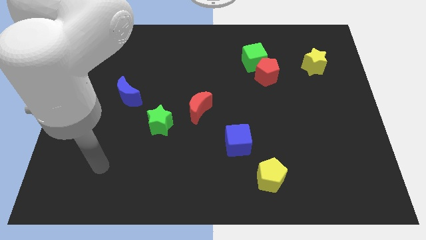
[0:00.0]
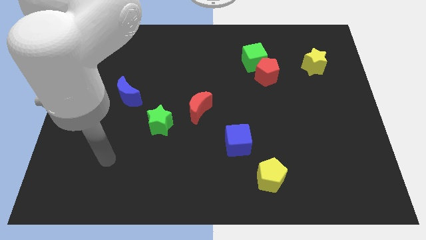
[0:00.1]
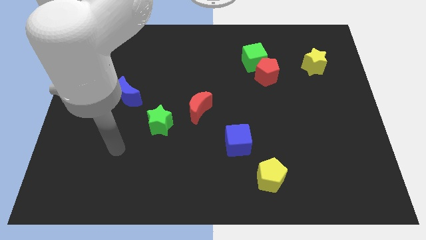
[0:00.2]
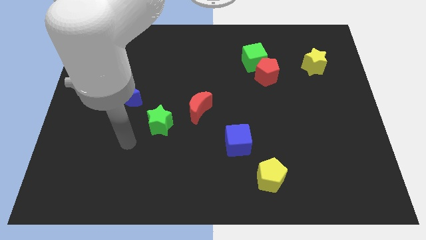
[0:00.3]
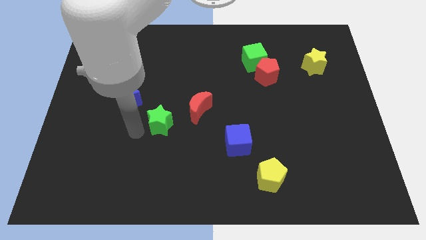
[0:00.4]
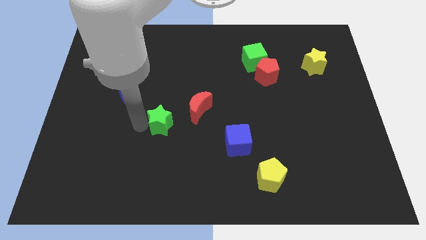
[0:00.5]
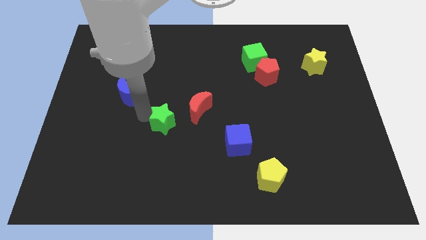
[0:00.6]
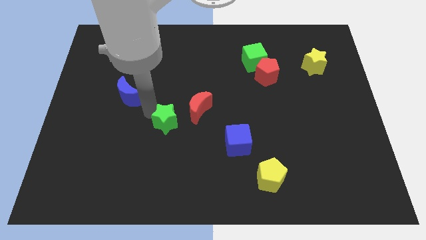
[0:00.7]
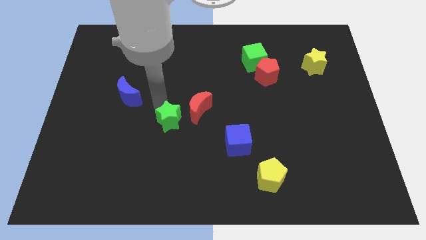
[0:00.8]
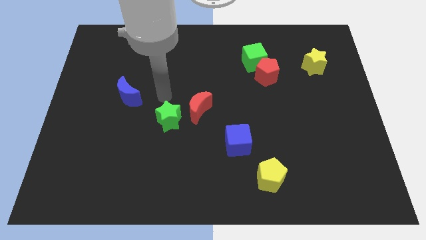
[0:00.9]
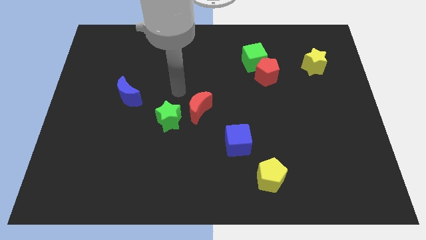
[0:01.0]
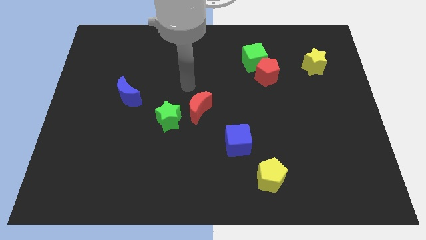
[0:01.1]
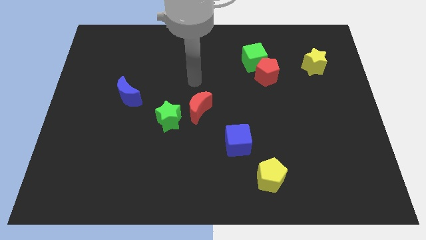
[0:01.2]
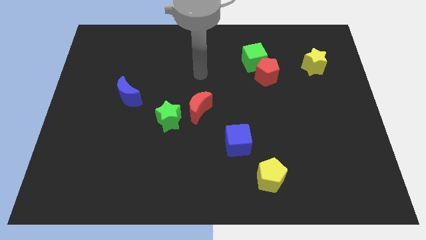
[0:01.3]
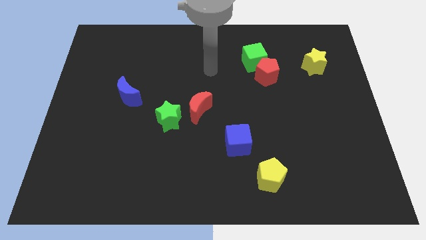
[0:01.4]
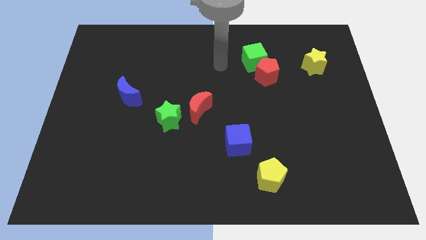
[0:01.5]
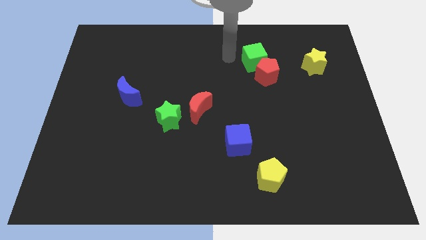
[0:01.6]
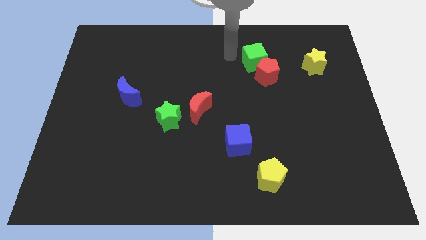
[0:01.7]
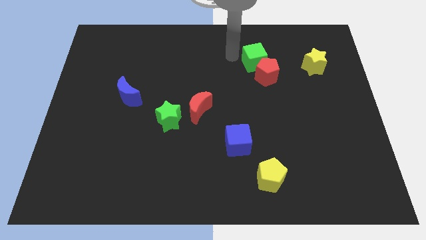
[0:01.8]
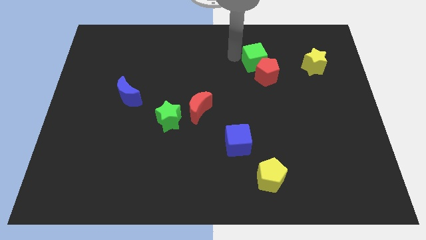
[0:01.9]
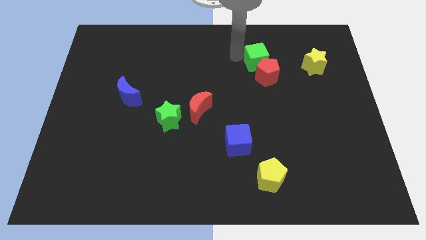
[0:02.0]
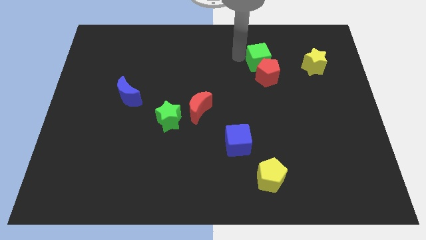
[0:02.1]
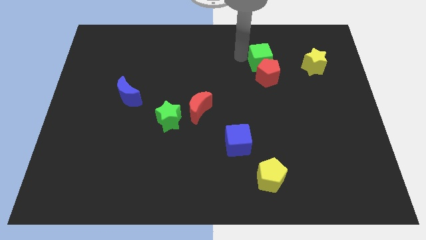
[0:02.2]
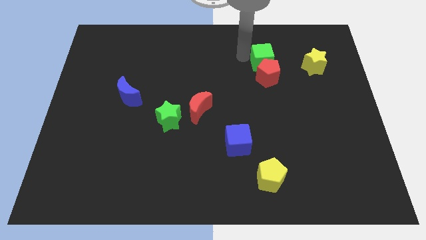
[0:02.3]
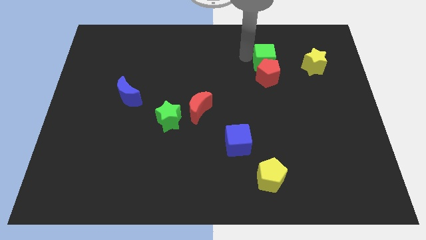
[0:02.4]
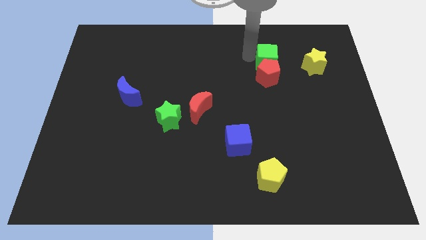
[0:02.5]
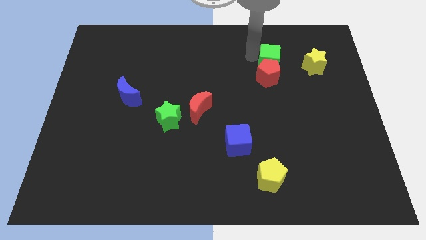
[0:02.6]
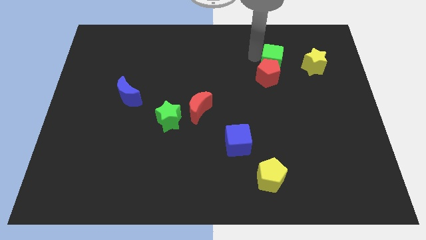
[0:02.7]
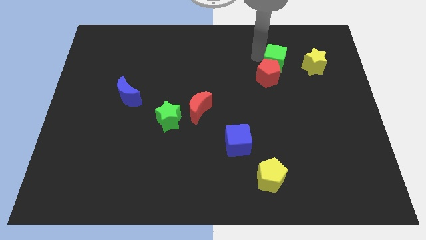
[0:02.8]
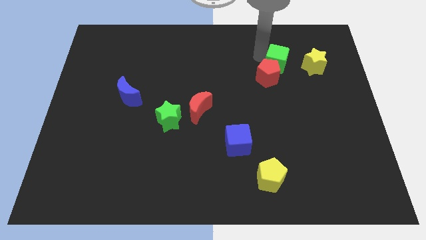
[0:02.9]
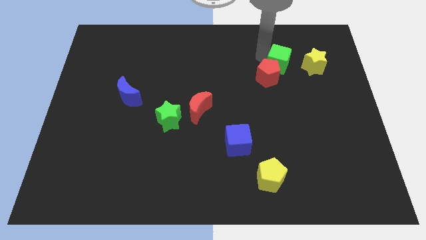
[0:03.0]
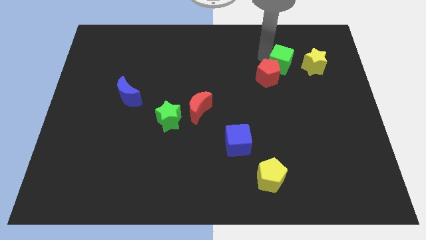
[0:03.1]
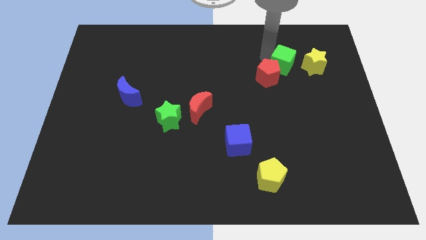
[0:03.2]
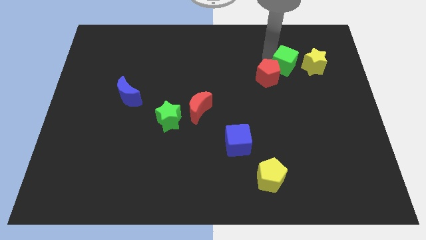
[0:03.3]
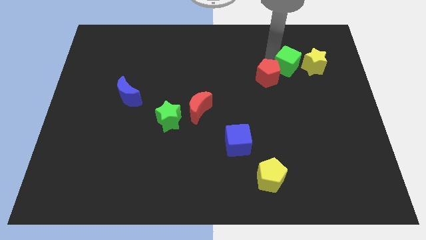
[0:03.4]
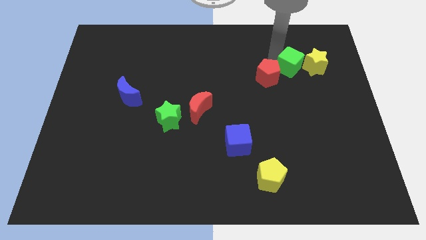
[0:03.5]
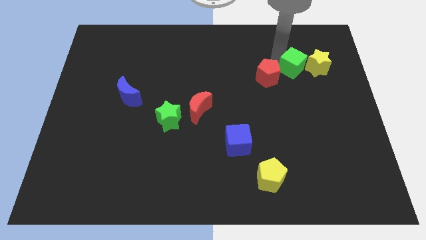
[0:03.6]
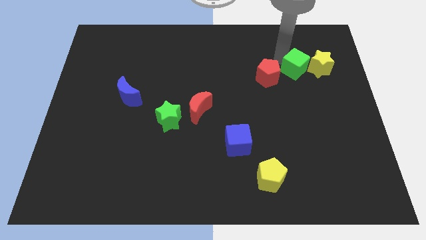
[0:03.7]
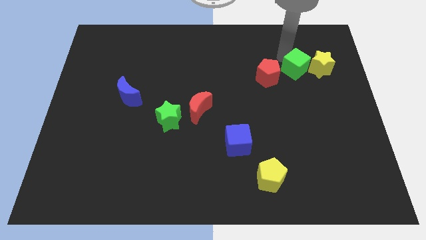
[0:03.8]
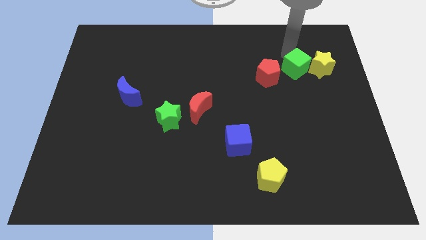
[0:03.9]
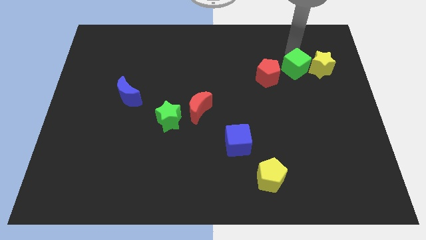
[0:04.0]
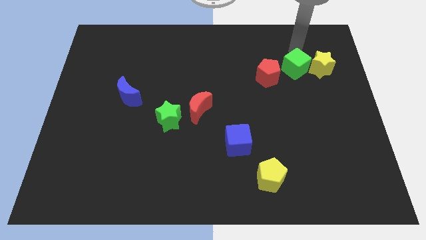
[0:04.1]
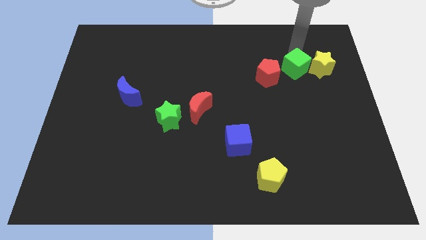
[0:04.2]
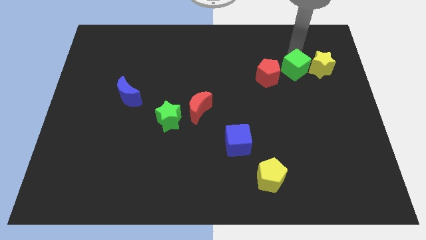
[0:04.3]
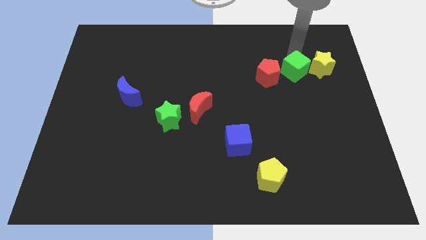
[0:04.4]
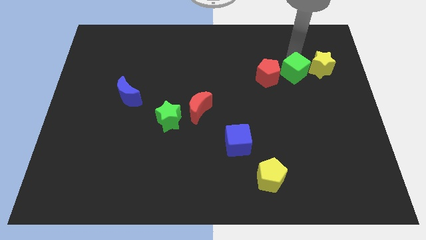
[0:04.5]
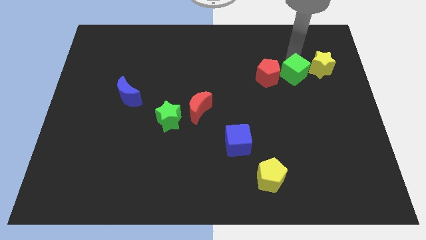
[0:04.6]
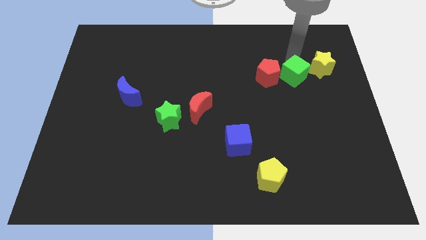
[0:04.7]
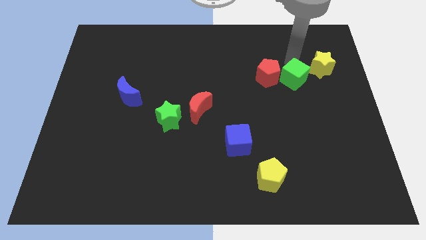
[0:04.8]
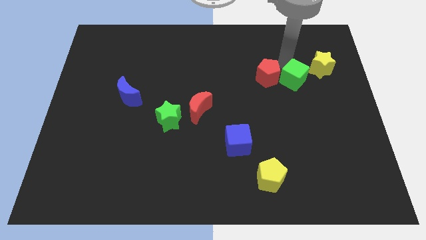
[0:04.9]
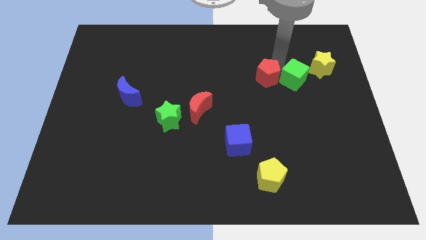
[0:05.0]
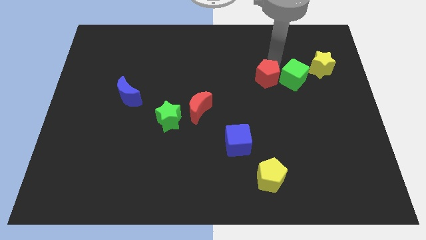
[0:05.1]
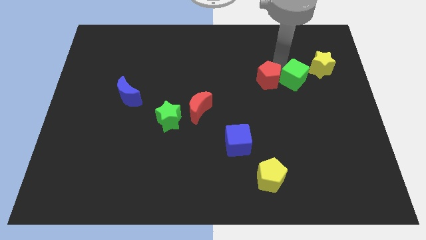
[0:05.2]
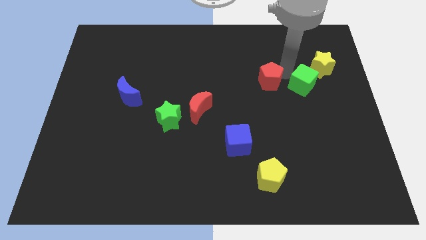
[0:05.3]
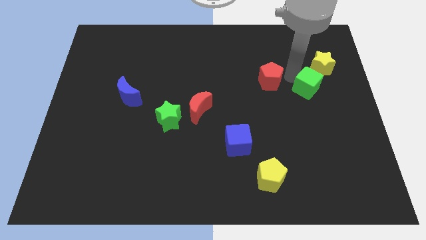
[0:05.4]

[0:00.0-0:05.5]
put the green cube to the bottom of the yellow star

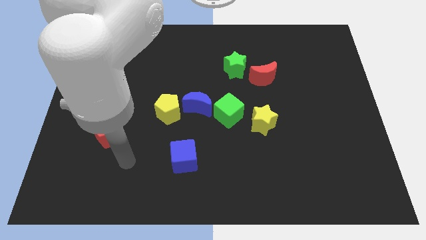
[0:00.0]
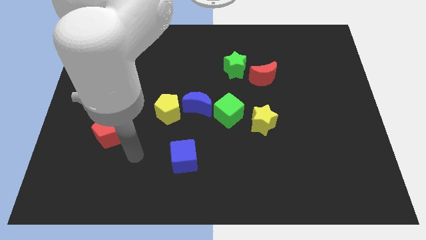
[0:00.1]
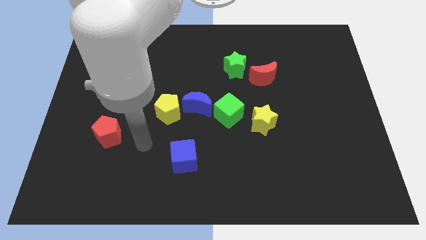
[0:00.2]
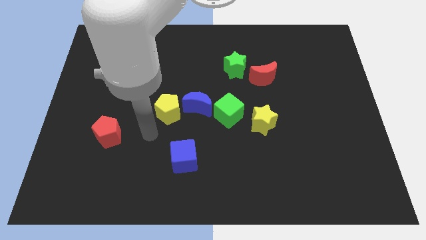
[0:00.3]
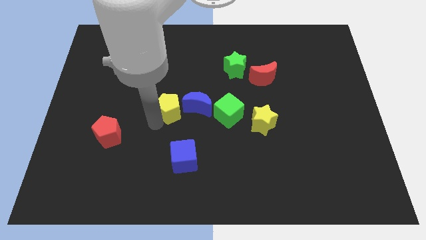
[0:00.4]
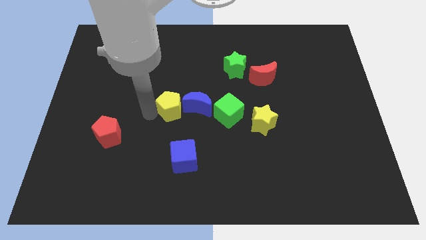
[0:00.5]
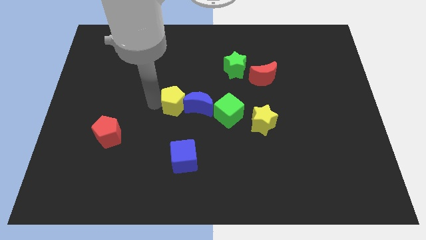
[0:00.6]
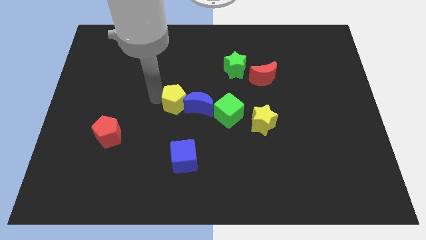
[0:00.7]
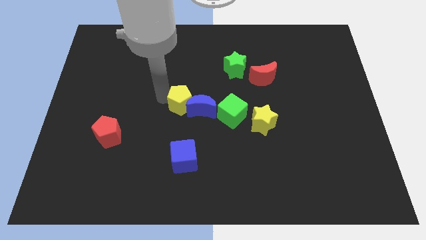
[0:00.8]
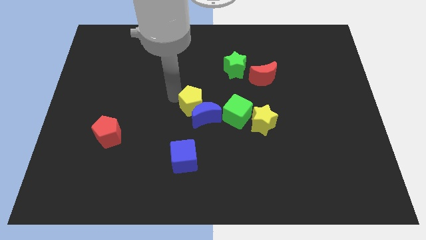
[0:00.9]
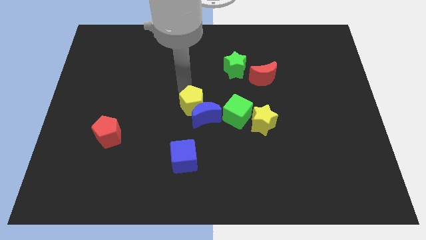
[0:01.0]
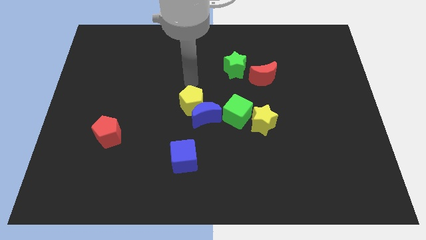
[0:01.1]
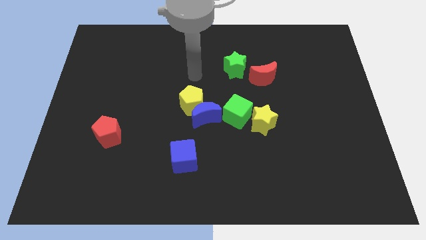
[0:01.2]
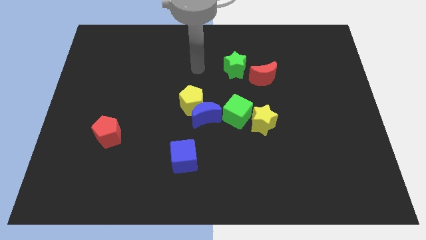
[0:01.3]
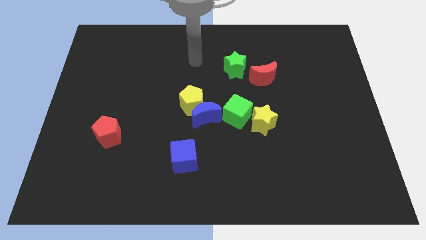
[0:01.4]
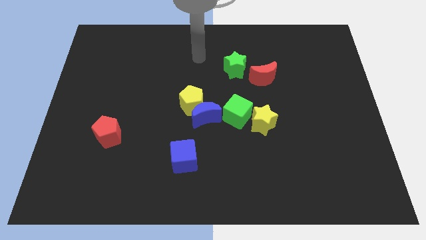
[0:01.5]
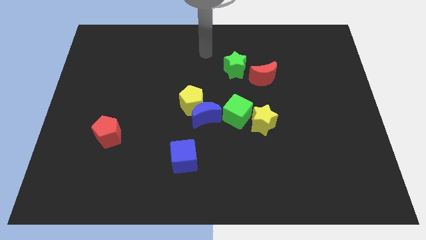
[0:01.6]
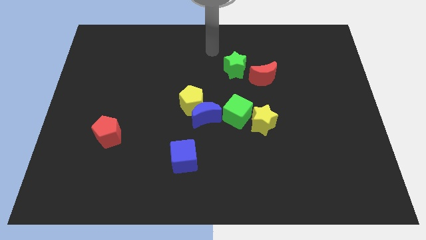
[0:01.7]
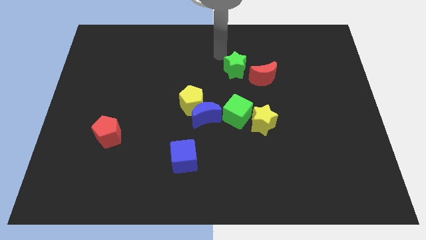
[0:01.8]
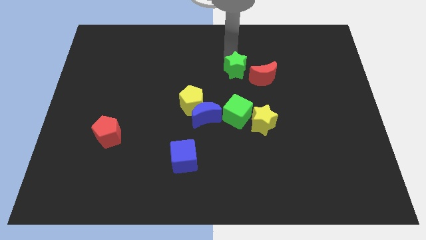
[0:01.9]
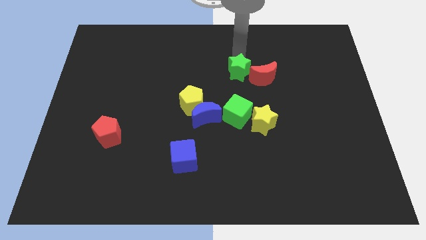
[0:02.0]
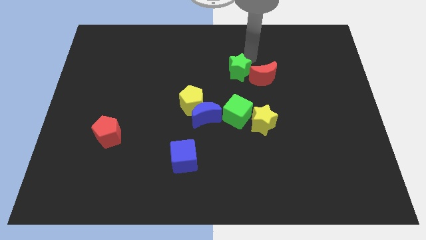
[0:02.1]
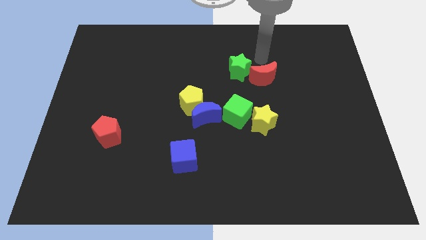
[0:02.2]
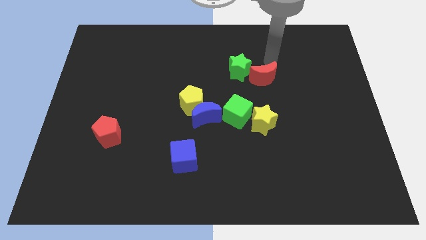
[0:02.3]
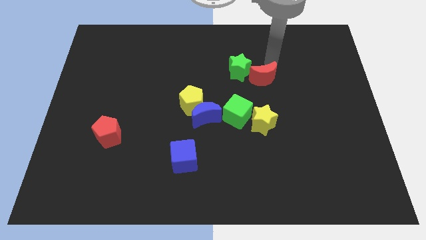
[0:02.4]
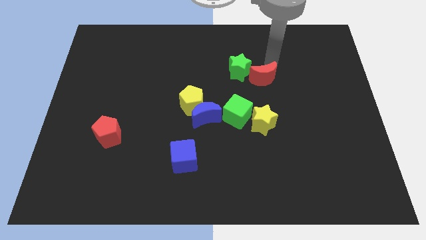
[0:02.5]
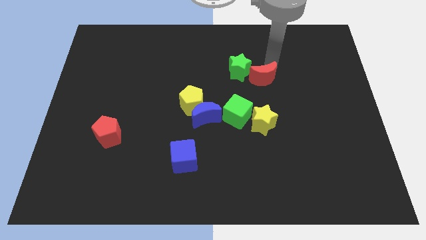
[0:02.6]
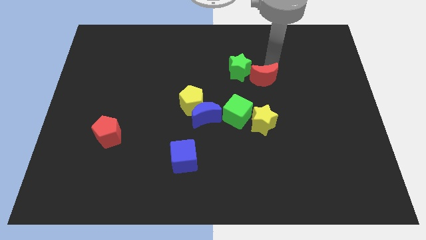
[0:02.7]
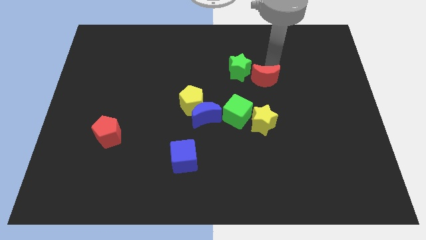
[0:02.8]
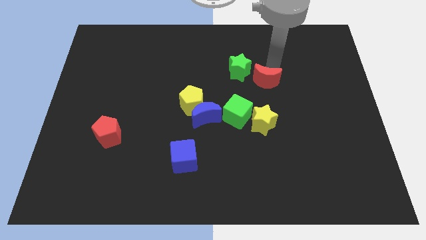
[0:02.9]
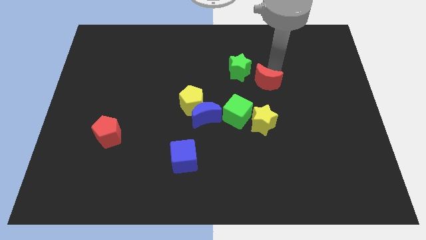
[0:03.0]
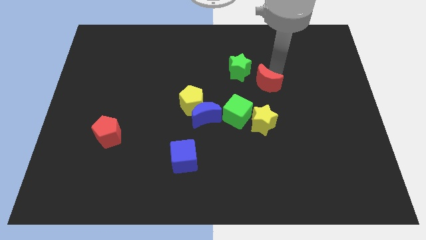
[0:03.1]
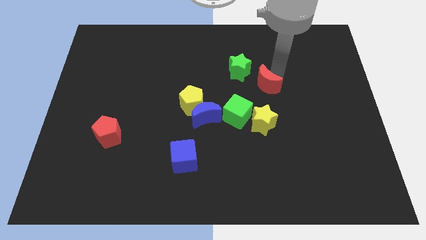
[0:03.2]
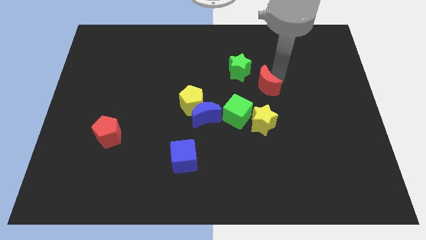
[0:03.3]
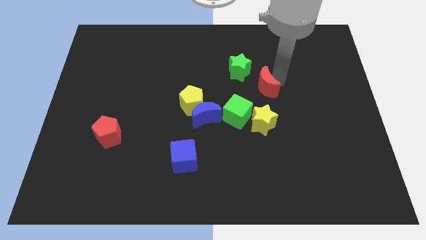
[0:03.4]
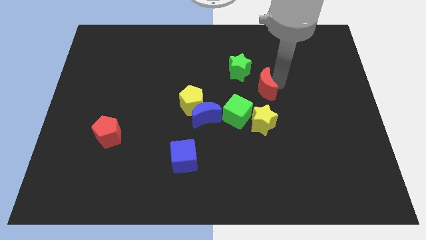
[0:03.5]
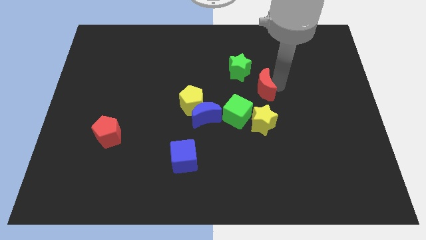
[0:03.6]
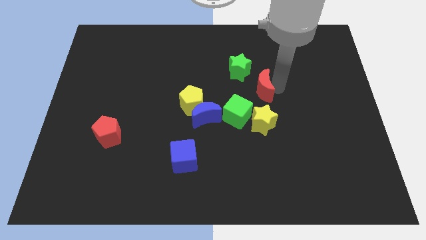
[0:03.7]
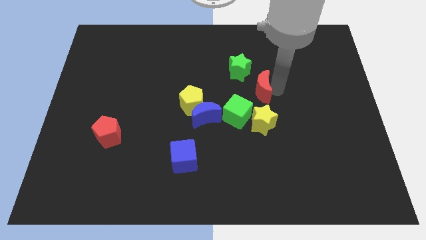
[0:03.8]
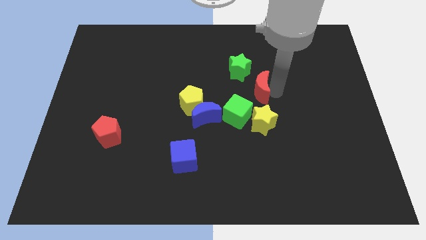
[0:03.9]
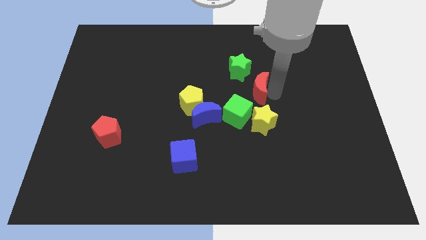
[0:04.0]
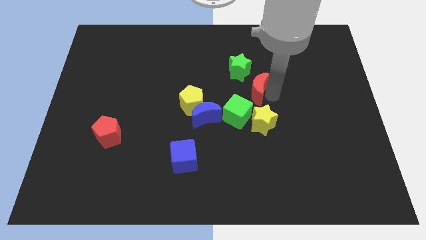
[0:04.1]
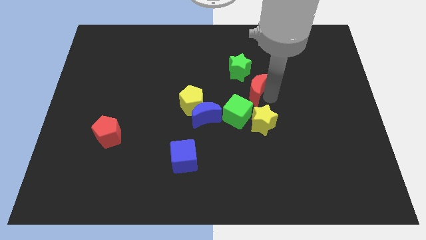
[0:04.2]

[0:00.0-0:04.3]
push the red moon above the green cube
